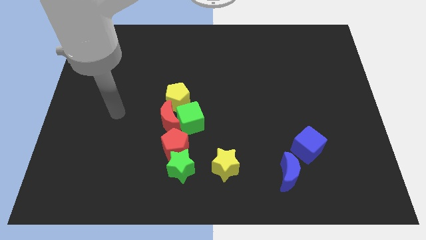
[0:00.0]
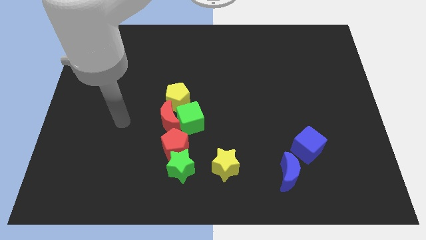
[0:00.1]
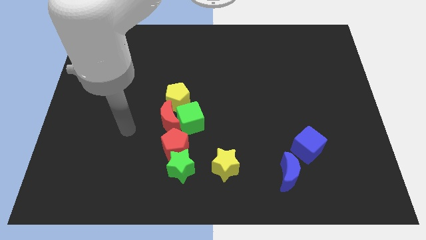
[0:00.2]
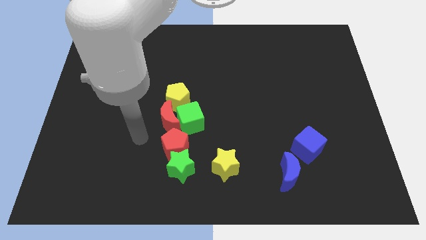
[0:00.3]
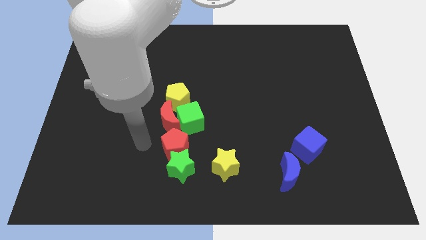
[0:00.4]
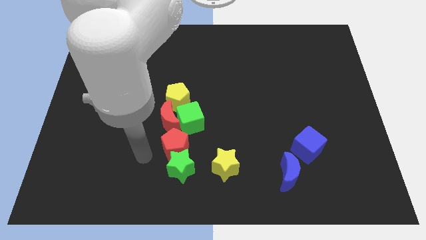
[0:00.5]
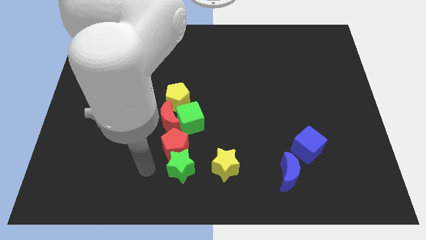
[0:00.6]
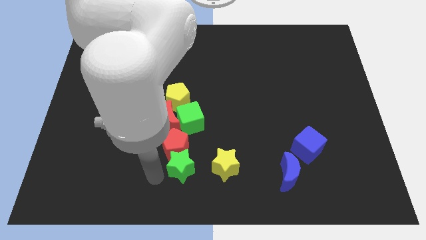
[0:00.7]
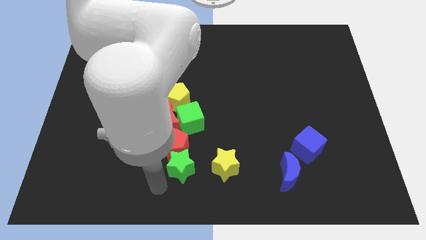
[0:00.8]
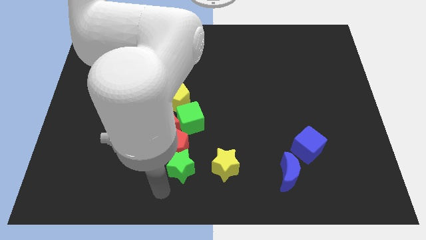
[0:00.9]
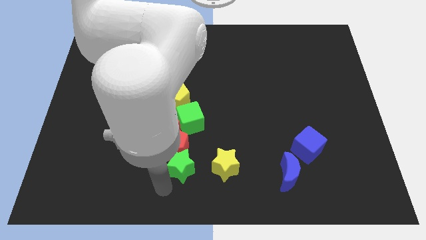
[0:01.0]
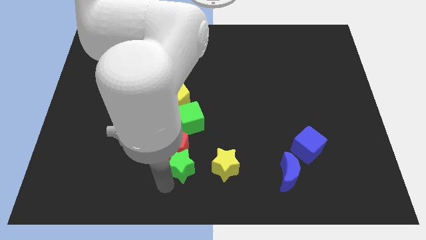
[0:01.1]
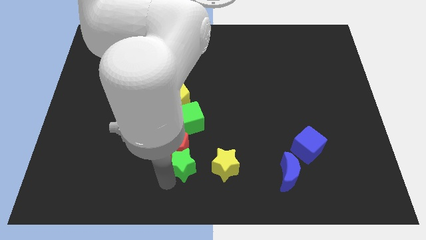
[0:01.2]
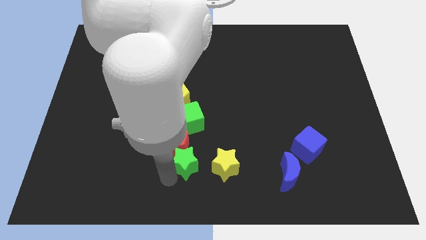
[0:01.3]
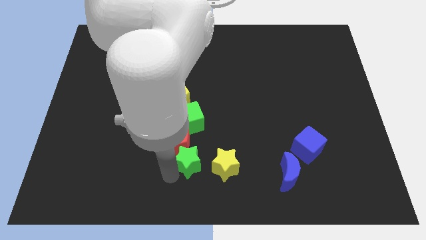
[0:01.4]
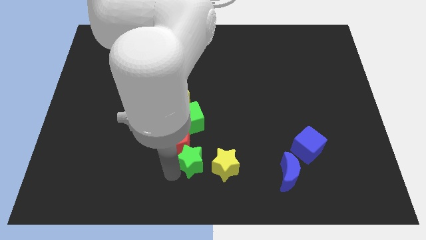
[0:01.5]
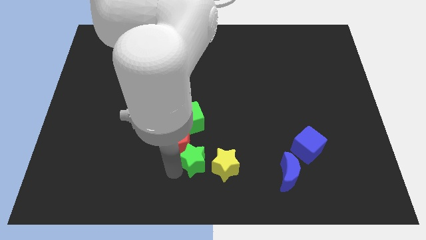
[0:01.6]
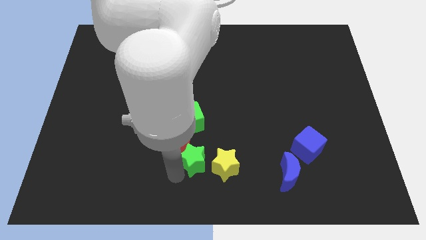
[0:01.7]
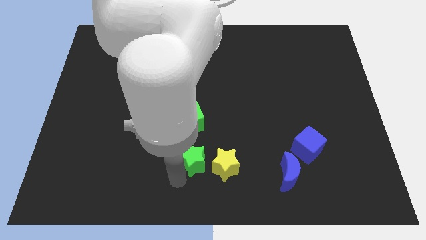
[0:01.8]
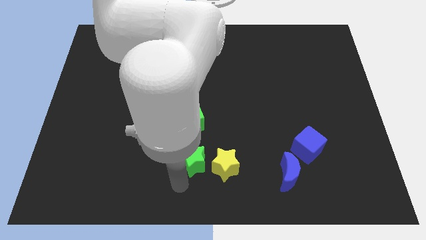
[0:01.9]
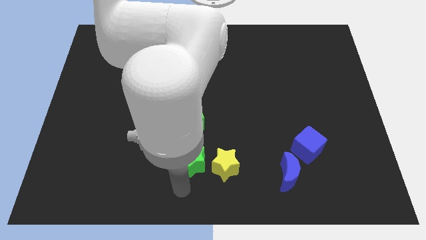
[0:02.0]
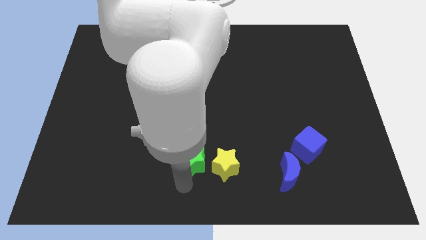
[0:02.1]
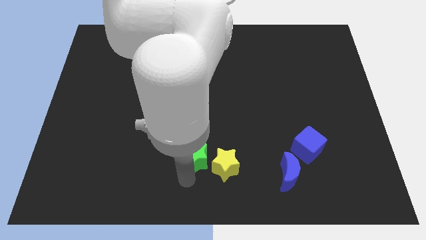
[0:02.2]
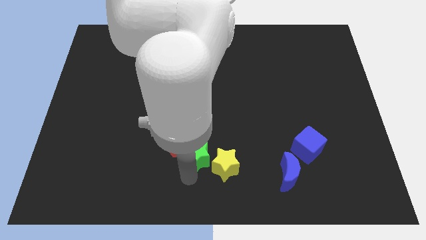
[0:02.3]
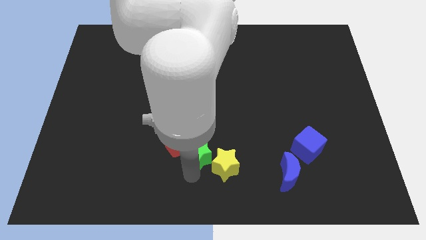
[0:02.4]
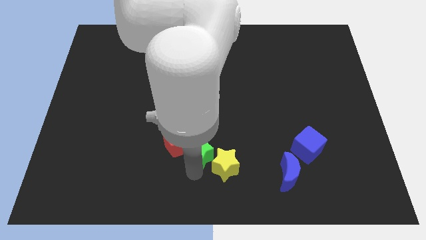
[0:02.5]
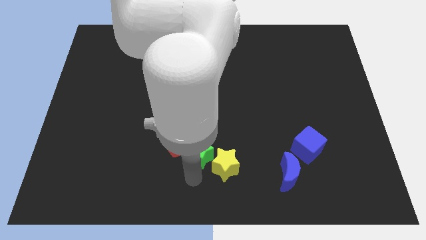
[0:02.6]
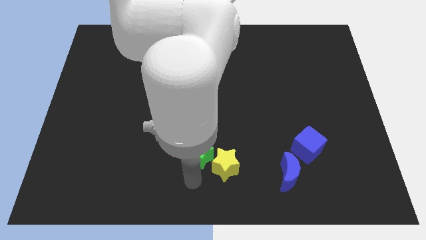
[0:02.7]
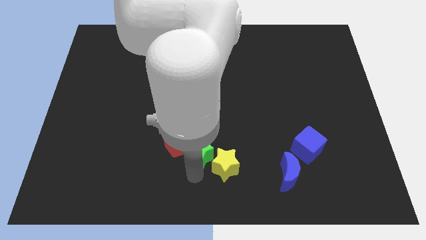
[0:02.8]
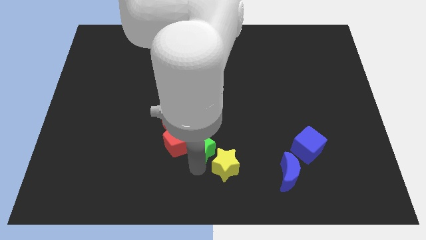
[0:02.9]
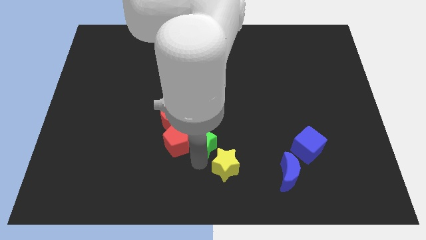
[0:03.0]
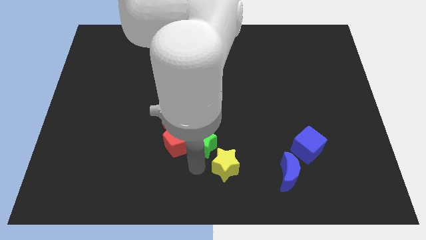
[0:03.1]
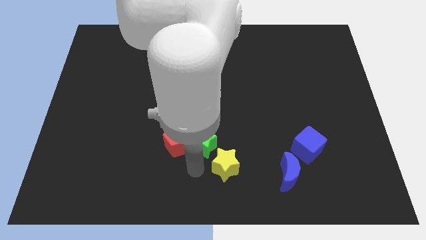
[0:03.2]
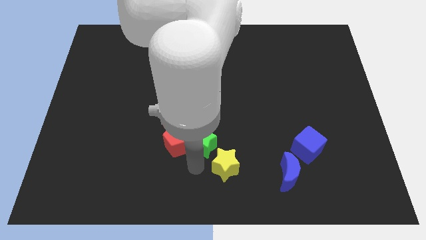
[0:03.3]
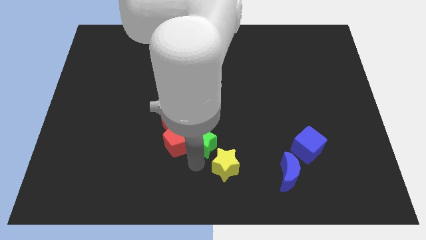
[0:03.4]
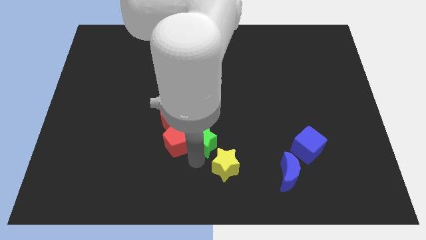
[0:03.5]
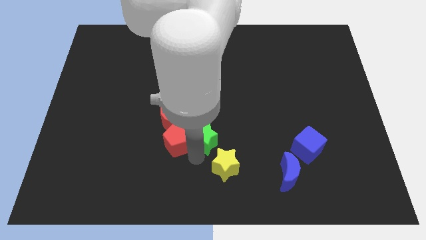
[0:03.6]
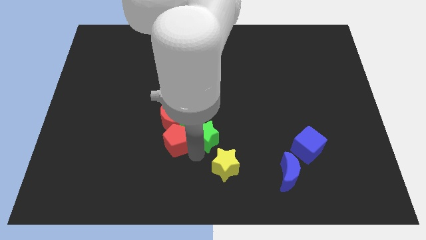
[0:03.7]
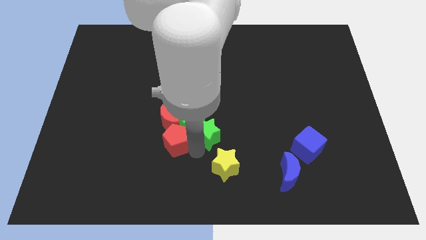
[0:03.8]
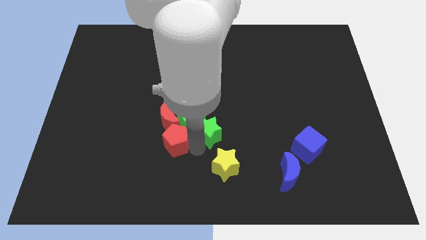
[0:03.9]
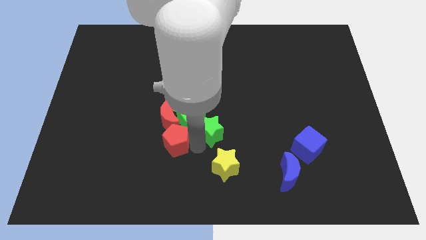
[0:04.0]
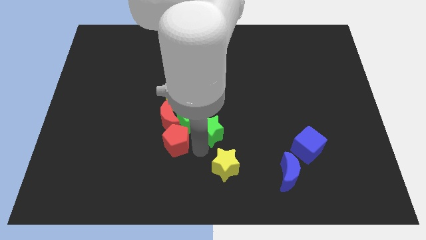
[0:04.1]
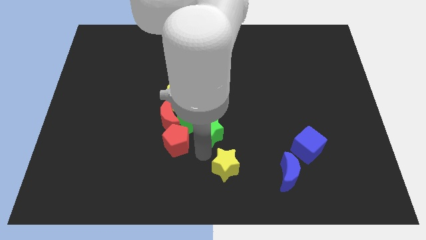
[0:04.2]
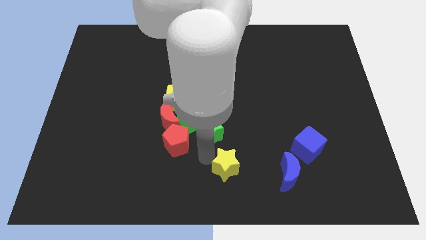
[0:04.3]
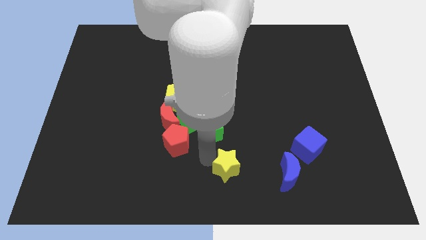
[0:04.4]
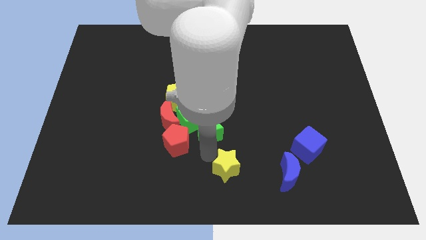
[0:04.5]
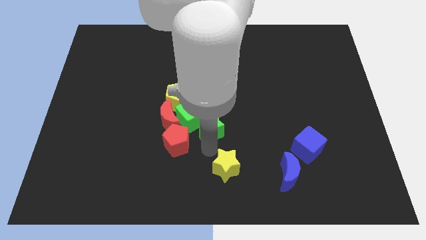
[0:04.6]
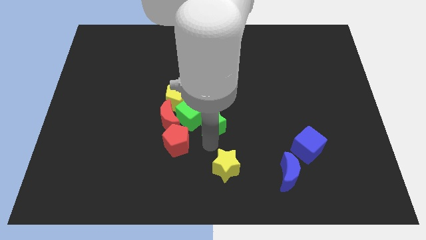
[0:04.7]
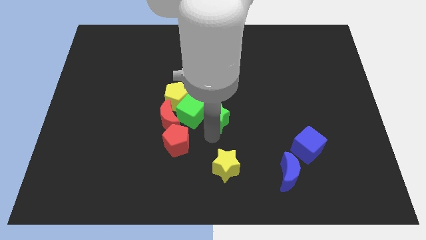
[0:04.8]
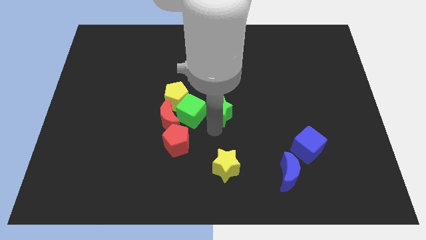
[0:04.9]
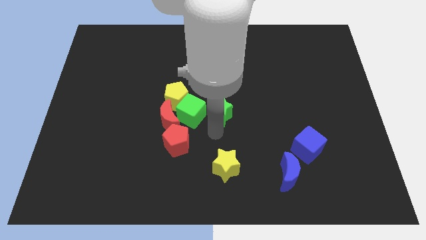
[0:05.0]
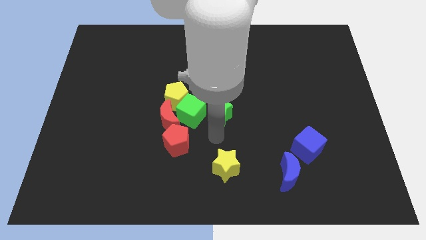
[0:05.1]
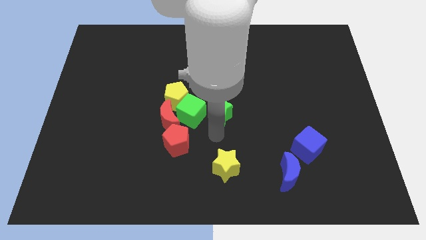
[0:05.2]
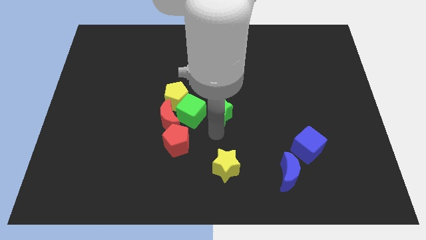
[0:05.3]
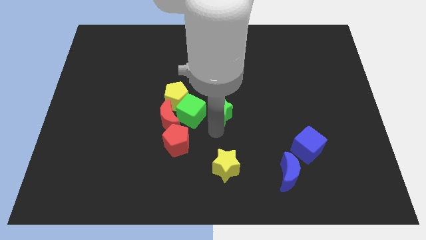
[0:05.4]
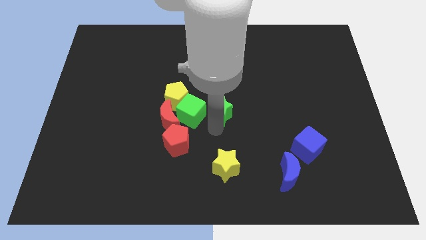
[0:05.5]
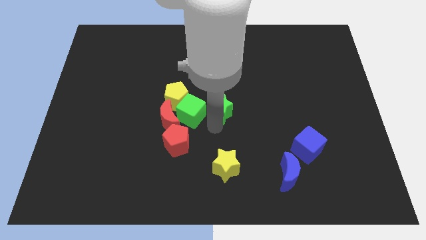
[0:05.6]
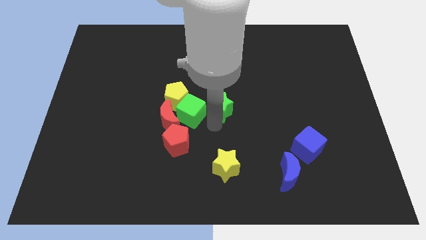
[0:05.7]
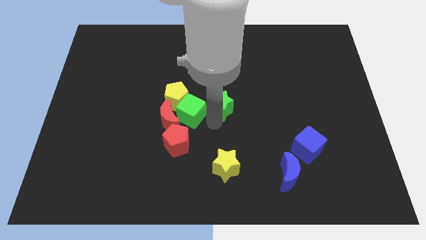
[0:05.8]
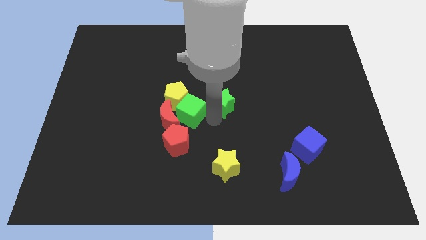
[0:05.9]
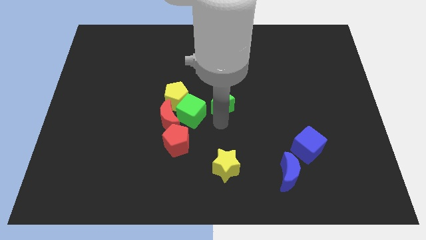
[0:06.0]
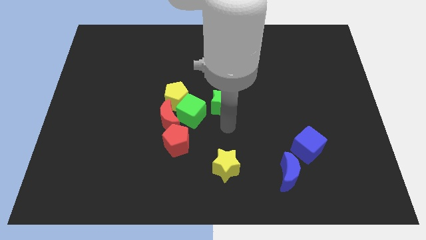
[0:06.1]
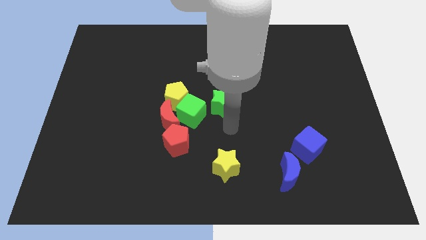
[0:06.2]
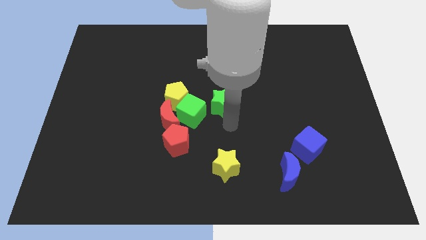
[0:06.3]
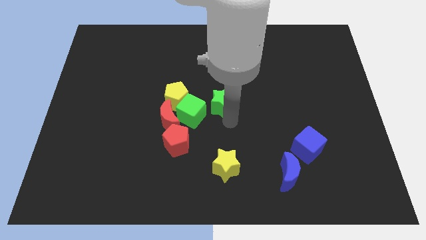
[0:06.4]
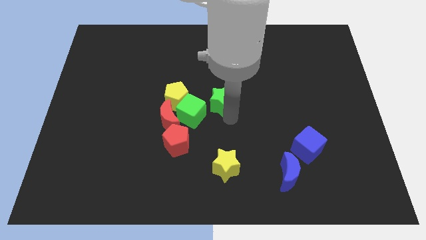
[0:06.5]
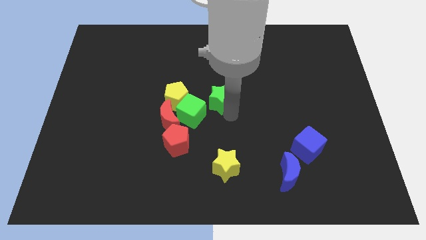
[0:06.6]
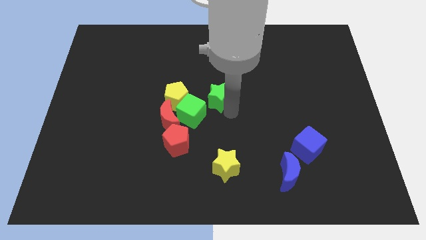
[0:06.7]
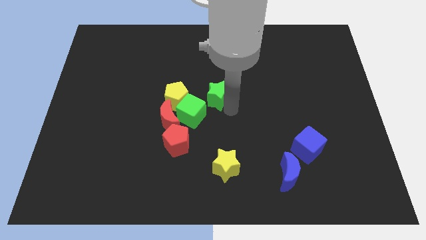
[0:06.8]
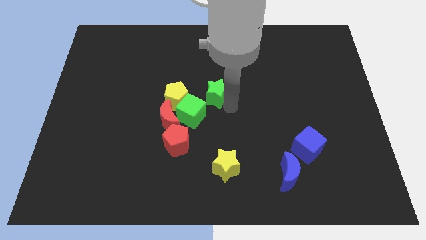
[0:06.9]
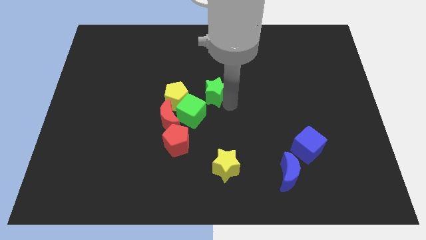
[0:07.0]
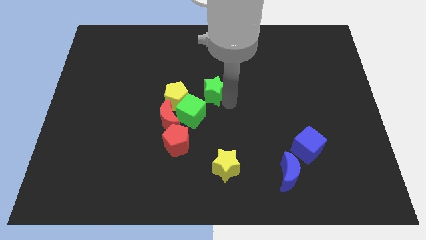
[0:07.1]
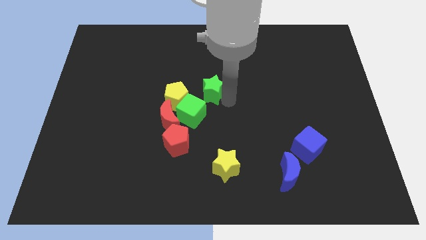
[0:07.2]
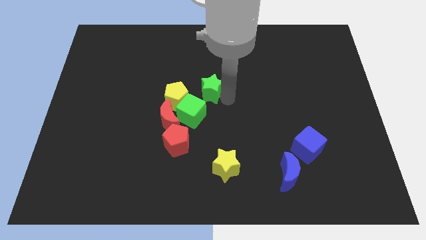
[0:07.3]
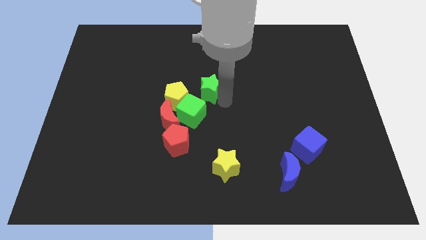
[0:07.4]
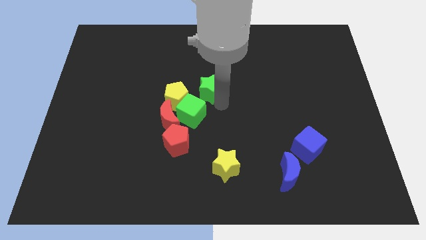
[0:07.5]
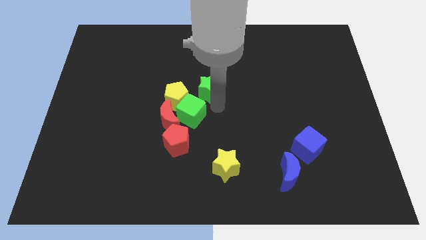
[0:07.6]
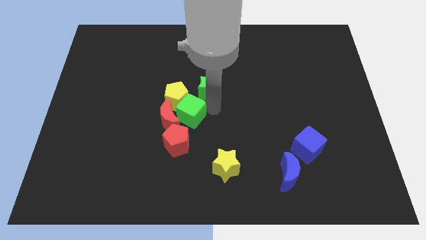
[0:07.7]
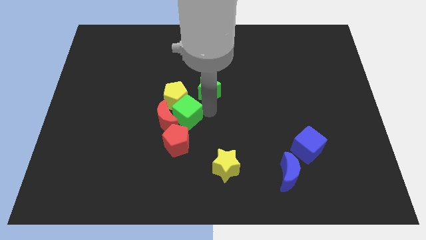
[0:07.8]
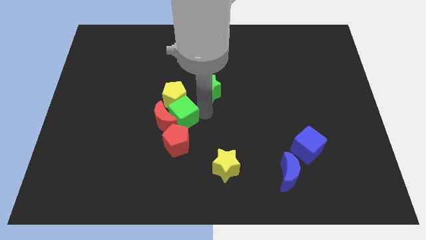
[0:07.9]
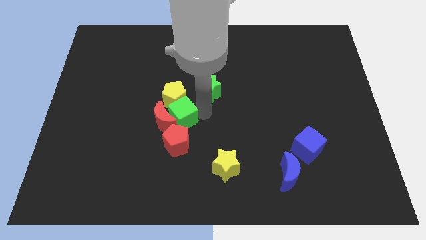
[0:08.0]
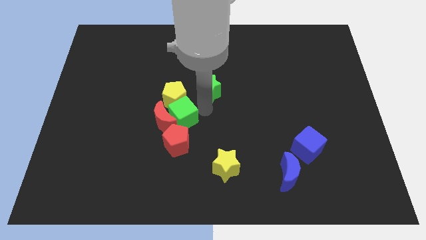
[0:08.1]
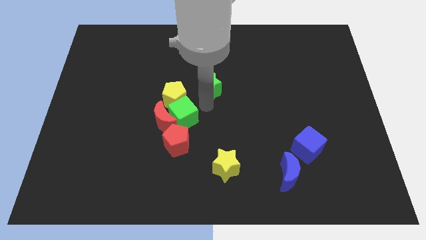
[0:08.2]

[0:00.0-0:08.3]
slide the green star up
